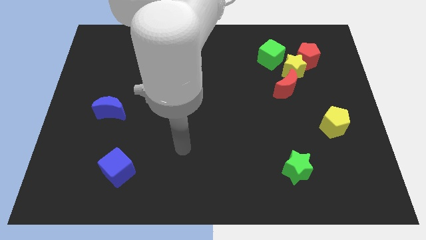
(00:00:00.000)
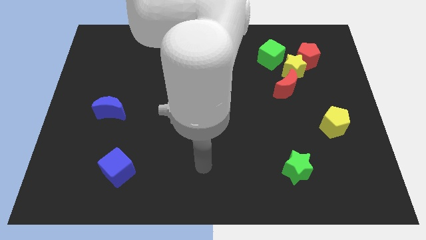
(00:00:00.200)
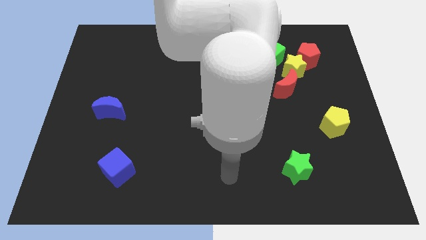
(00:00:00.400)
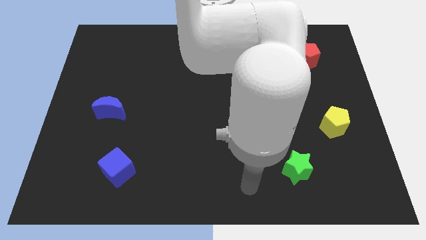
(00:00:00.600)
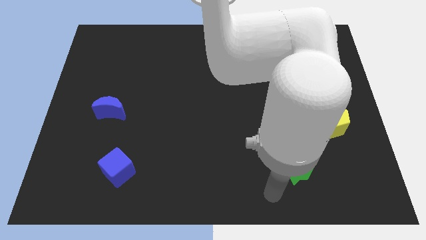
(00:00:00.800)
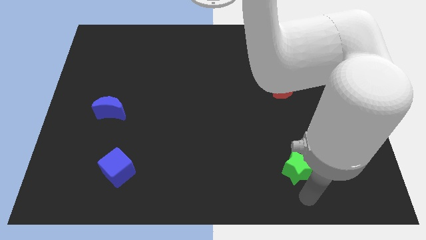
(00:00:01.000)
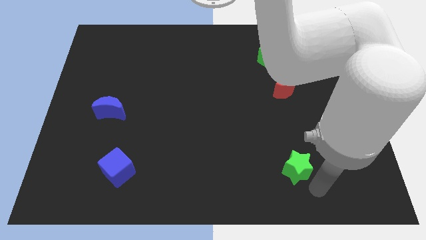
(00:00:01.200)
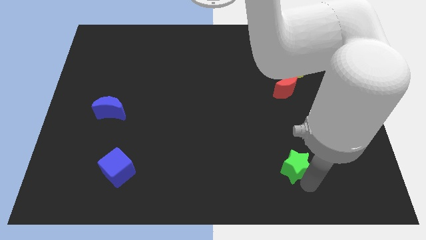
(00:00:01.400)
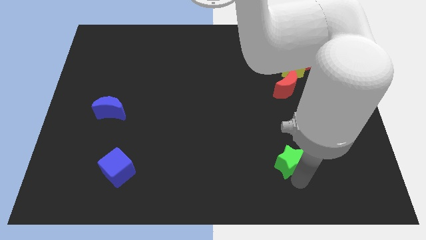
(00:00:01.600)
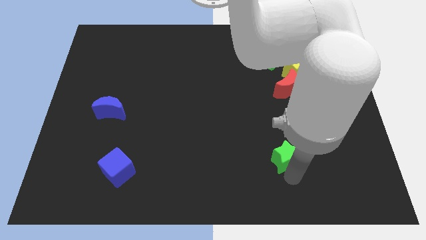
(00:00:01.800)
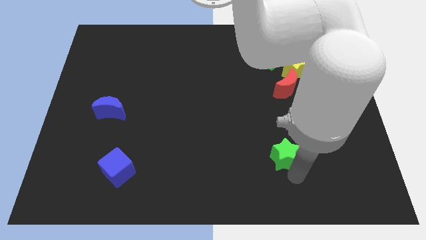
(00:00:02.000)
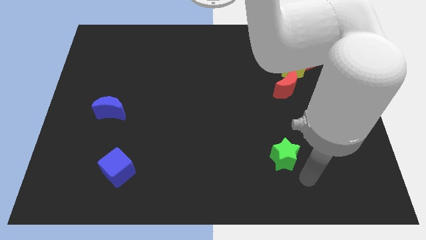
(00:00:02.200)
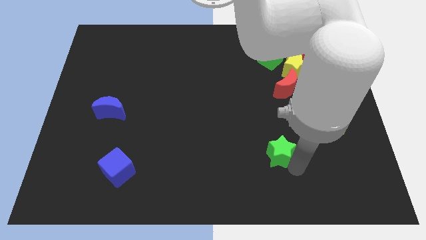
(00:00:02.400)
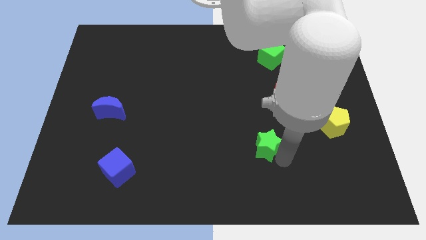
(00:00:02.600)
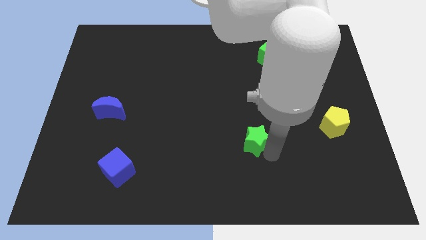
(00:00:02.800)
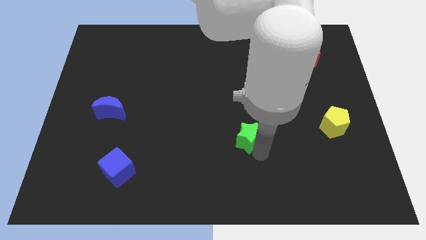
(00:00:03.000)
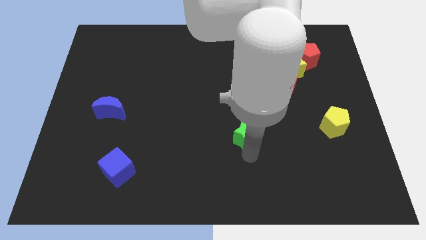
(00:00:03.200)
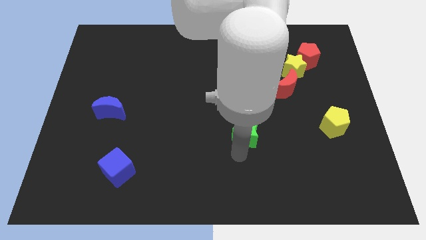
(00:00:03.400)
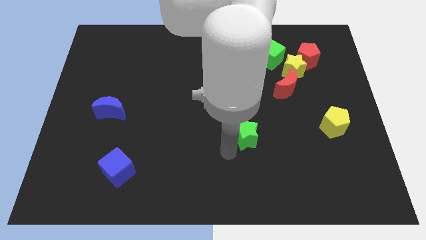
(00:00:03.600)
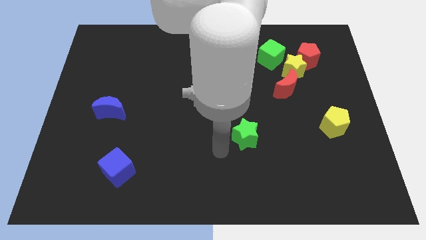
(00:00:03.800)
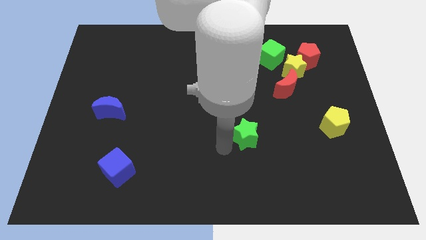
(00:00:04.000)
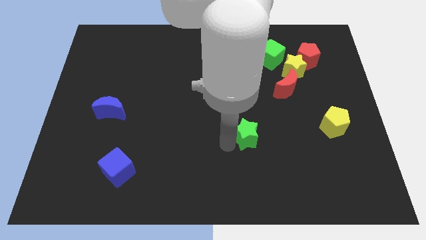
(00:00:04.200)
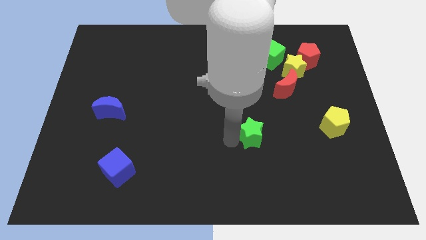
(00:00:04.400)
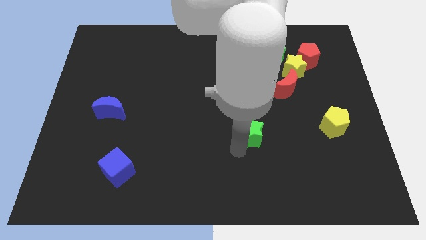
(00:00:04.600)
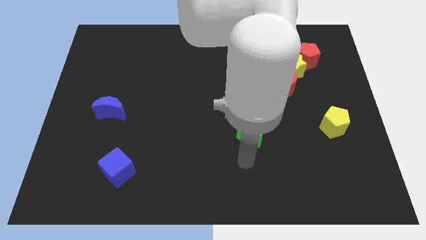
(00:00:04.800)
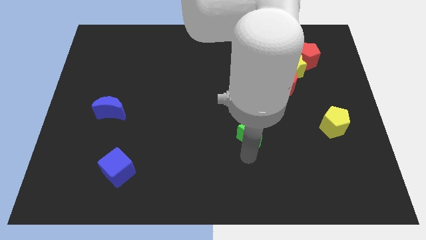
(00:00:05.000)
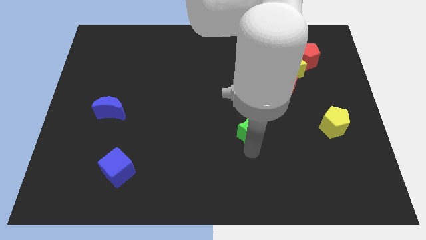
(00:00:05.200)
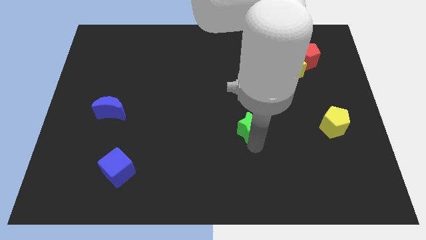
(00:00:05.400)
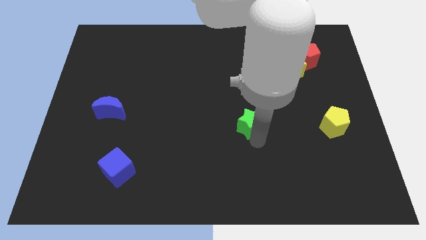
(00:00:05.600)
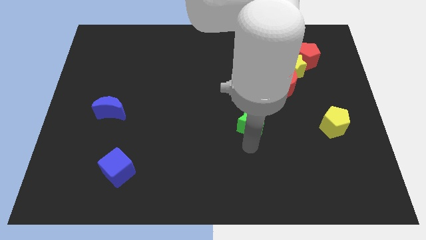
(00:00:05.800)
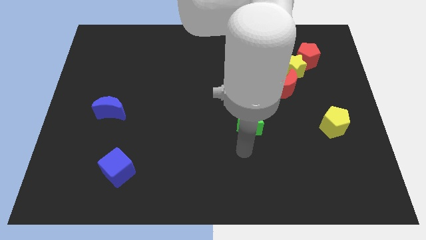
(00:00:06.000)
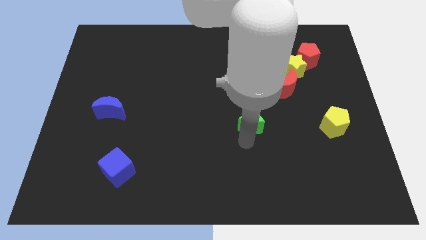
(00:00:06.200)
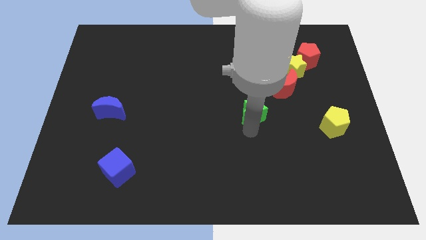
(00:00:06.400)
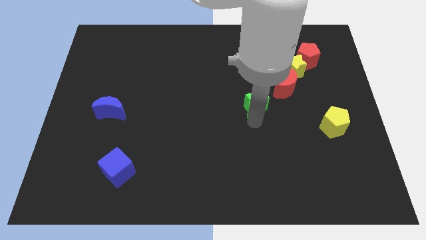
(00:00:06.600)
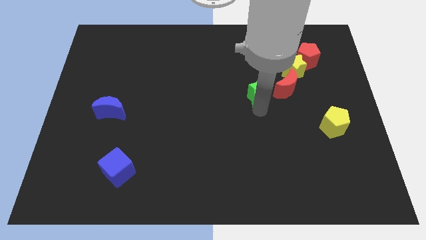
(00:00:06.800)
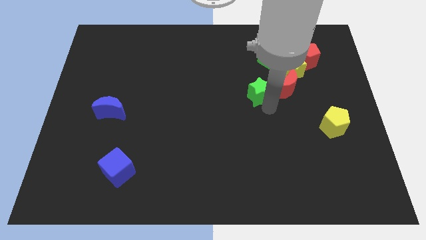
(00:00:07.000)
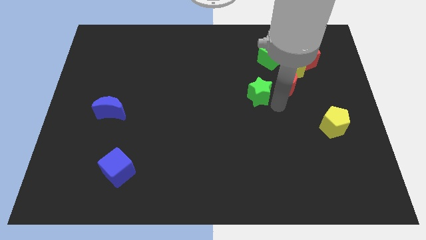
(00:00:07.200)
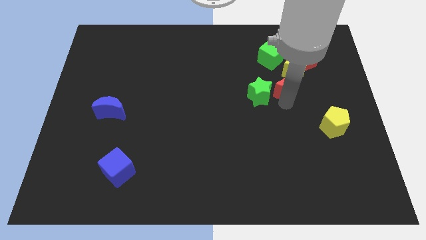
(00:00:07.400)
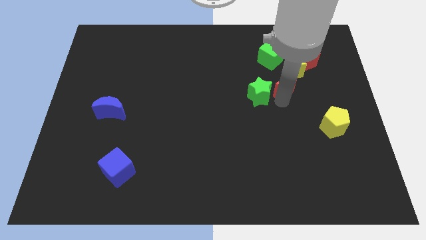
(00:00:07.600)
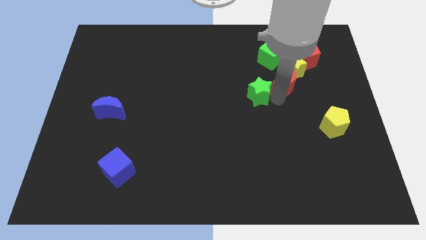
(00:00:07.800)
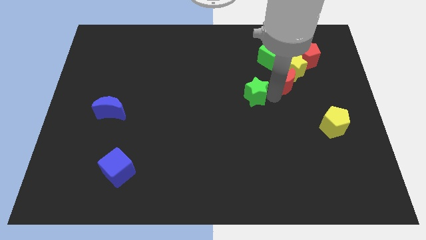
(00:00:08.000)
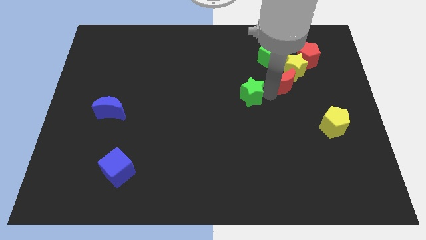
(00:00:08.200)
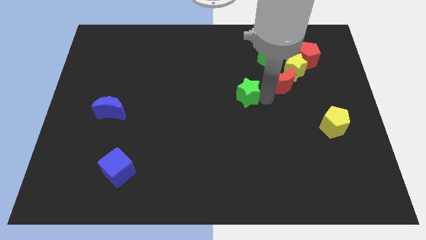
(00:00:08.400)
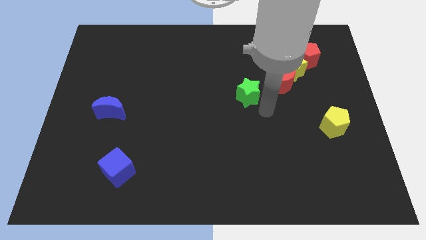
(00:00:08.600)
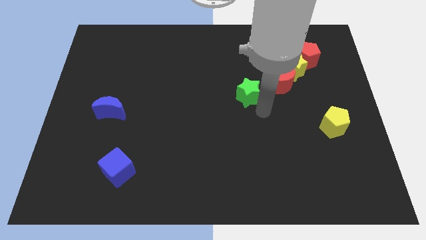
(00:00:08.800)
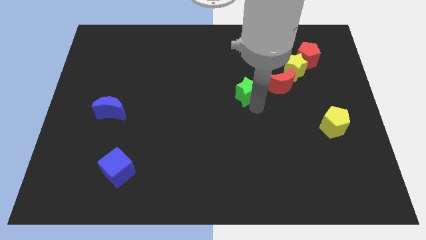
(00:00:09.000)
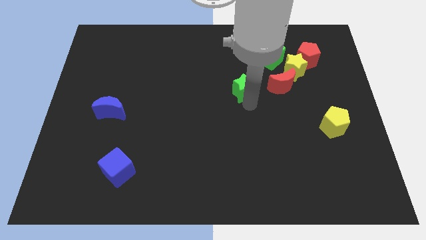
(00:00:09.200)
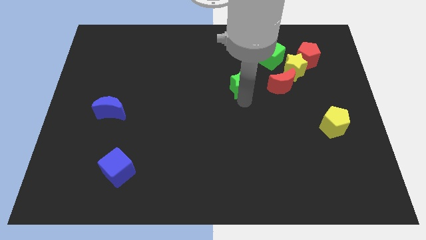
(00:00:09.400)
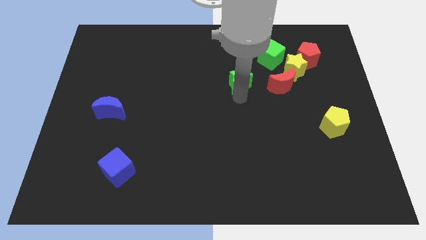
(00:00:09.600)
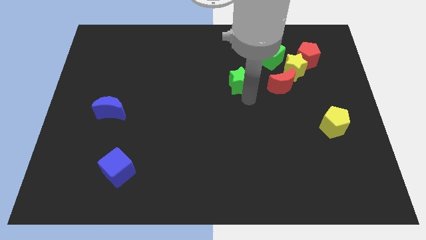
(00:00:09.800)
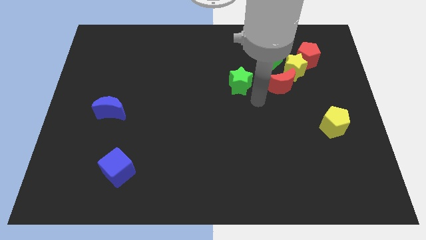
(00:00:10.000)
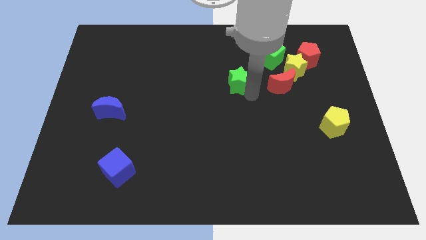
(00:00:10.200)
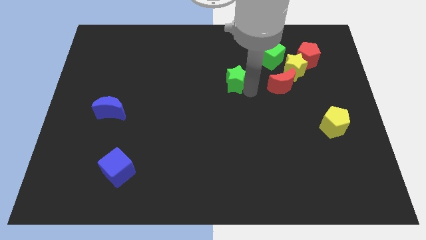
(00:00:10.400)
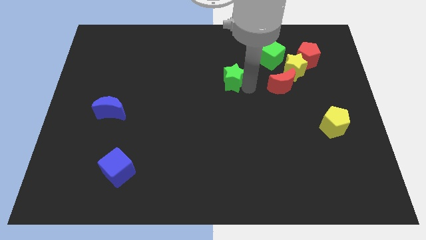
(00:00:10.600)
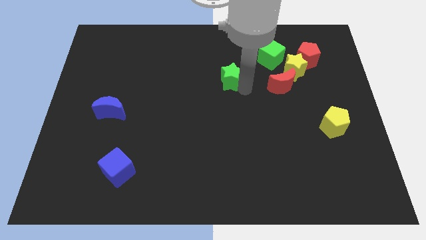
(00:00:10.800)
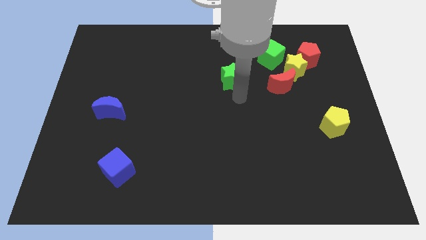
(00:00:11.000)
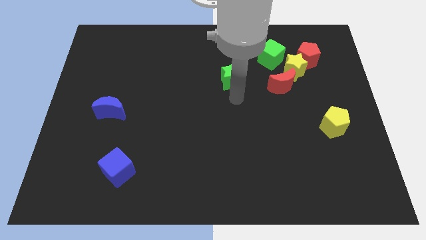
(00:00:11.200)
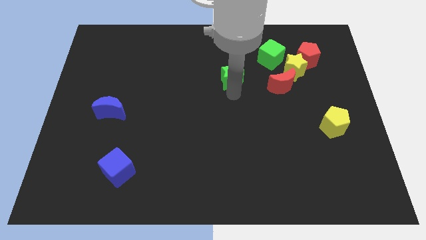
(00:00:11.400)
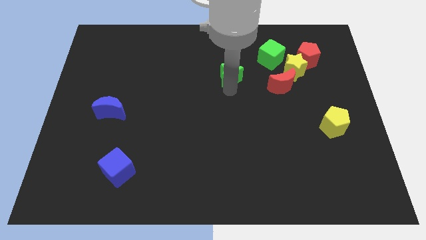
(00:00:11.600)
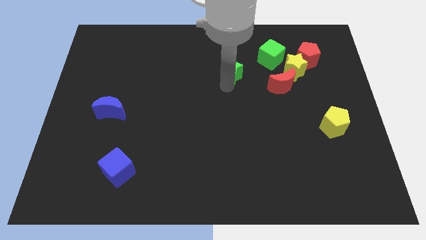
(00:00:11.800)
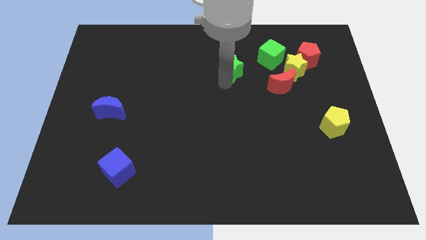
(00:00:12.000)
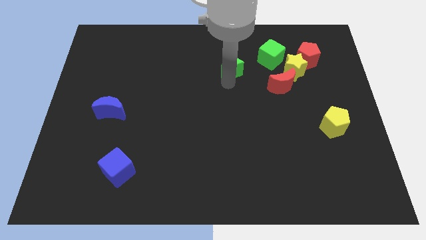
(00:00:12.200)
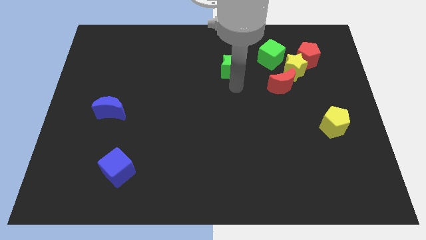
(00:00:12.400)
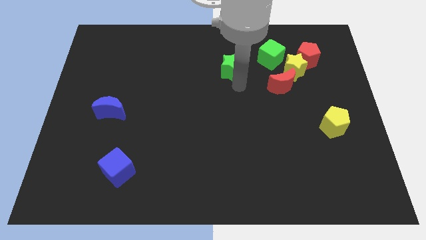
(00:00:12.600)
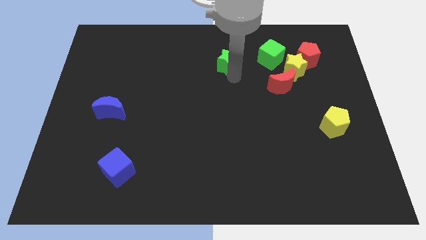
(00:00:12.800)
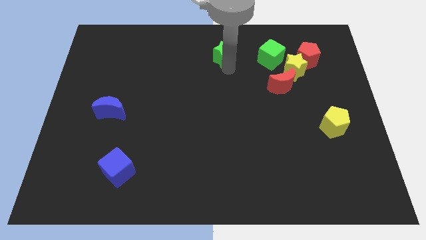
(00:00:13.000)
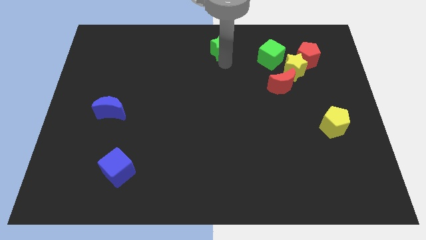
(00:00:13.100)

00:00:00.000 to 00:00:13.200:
slide the green star to the towards your base
